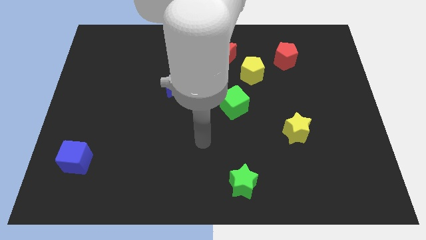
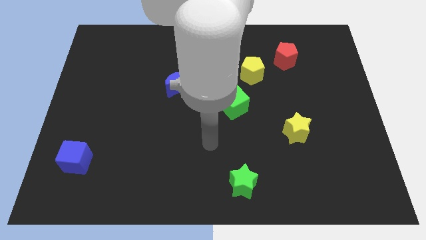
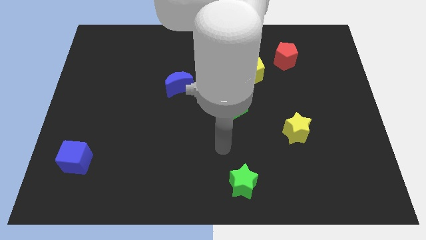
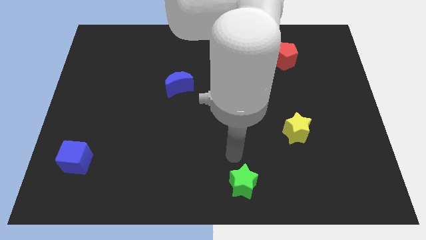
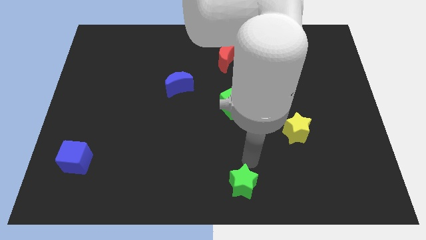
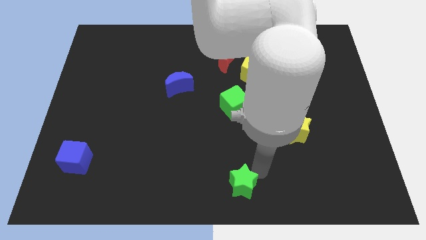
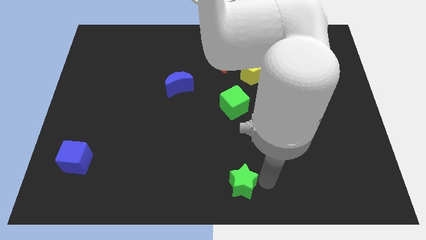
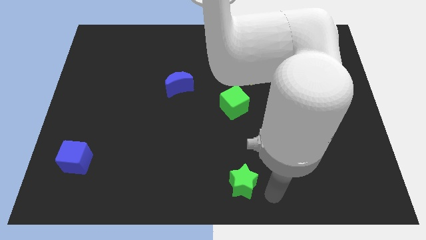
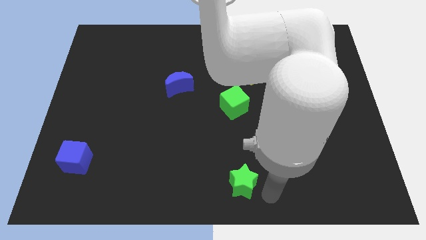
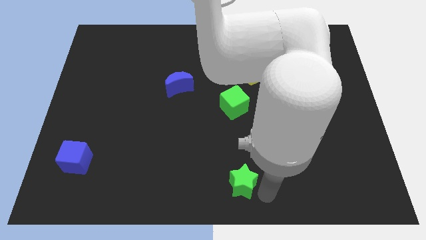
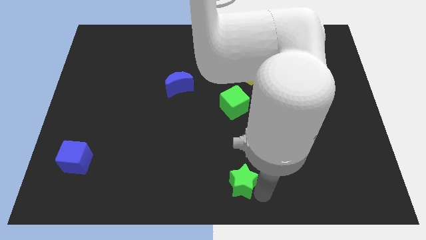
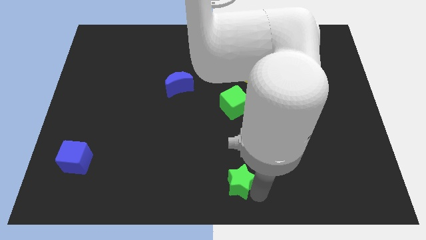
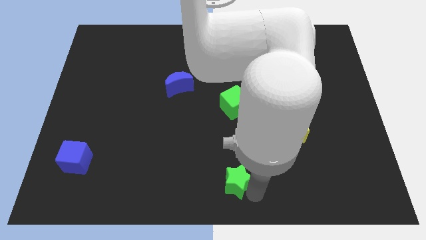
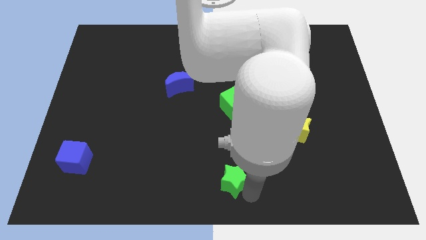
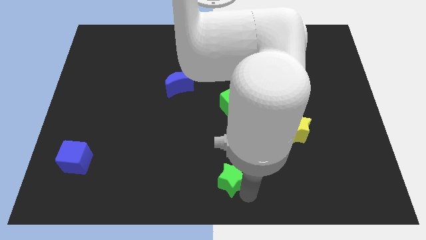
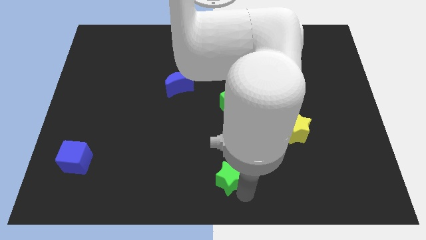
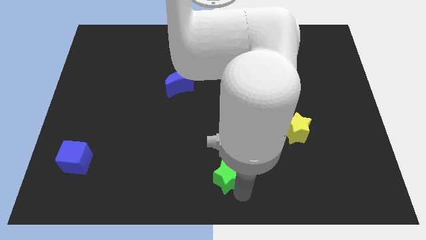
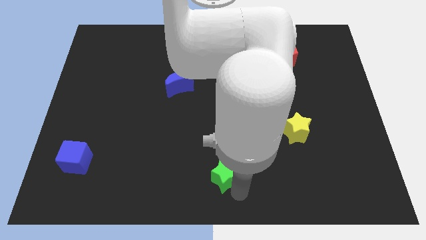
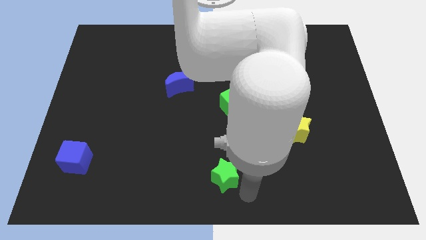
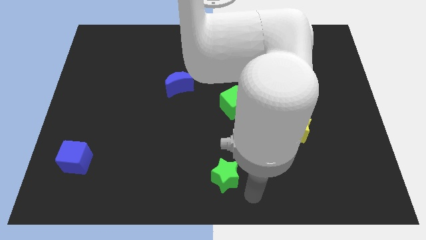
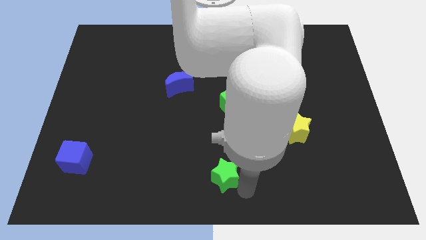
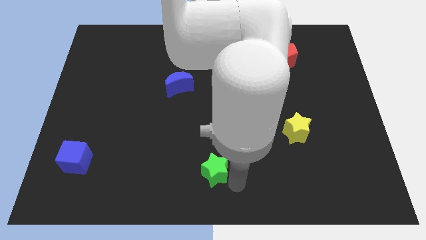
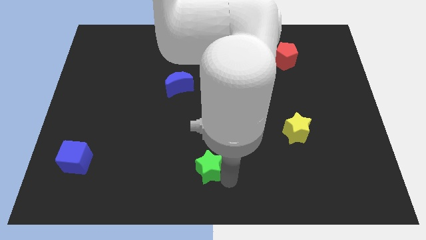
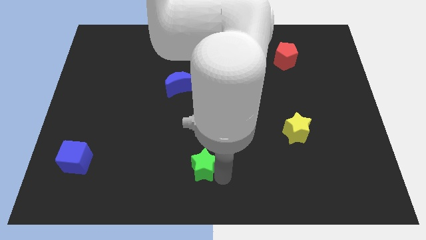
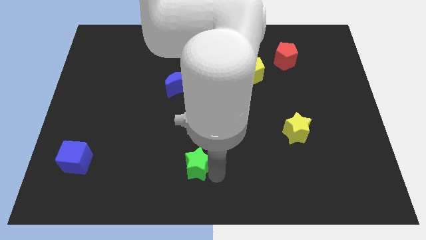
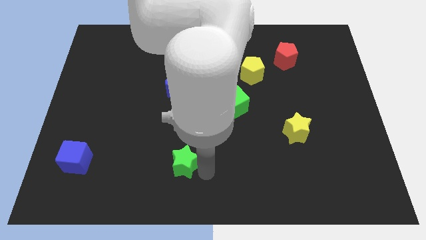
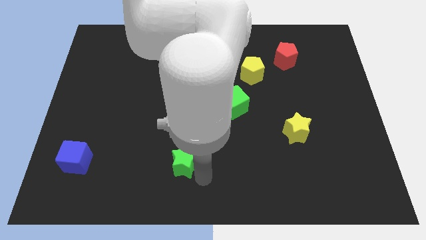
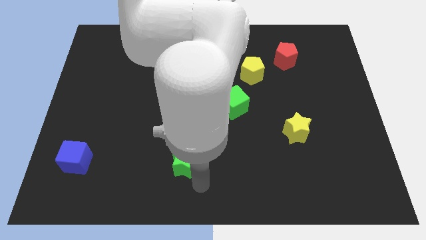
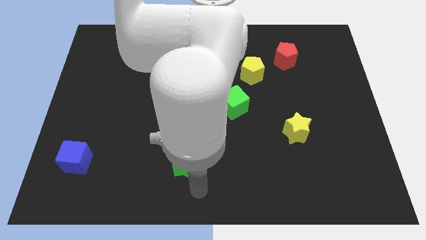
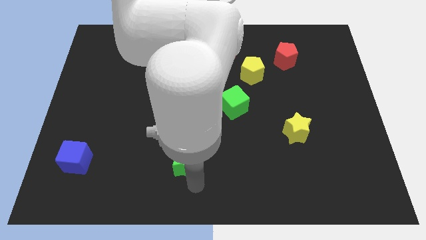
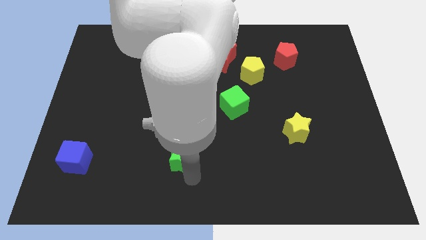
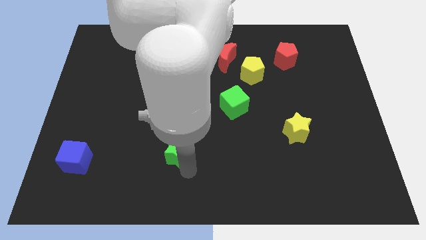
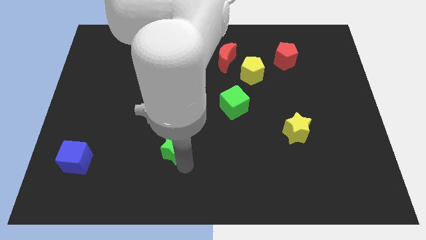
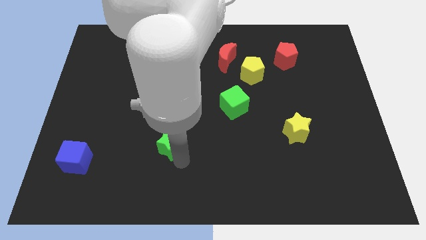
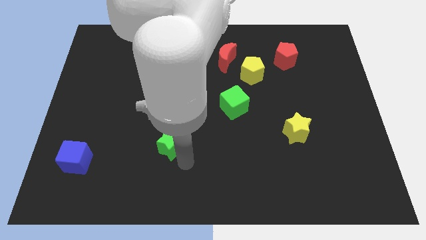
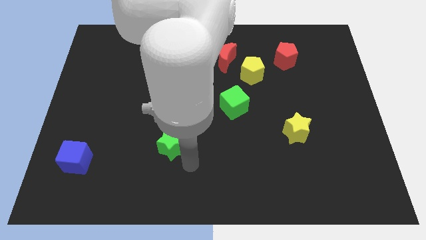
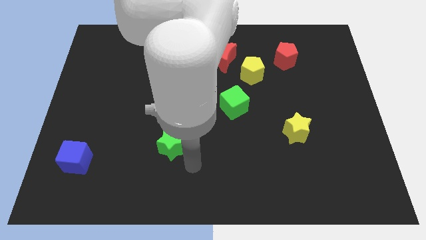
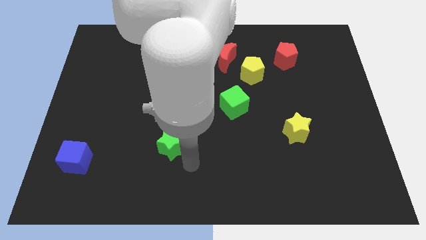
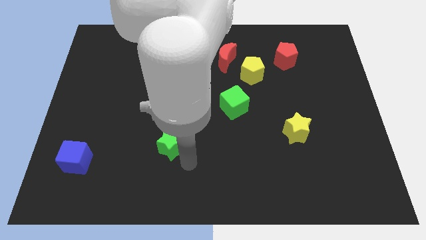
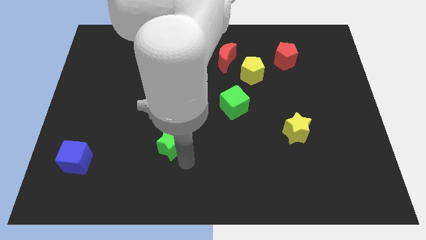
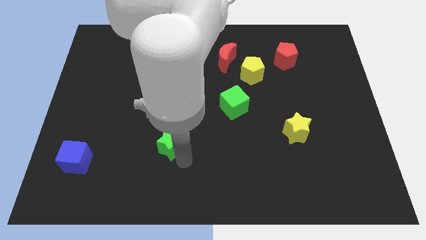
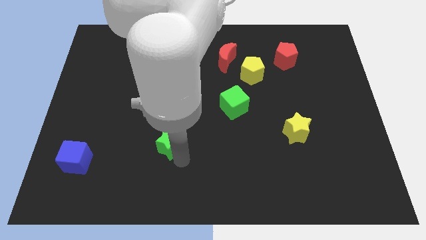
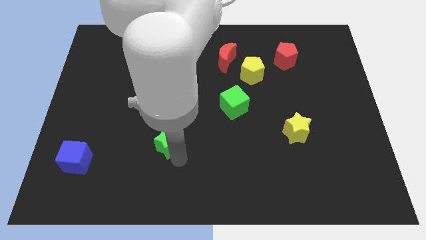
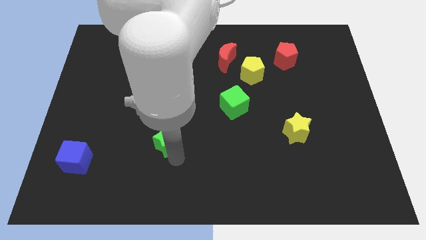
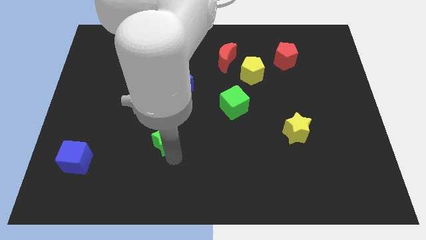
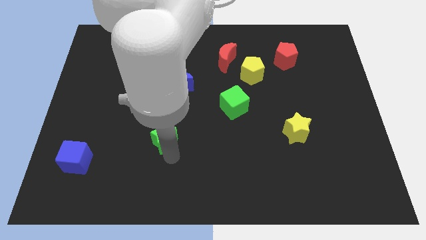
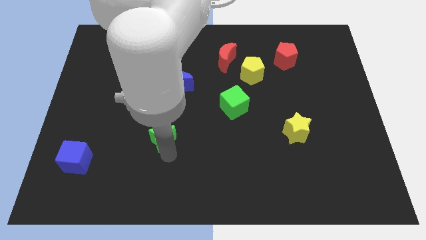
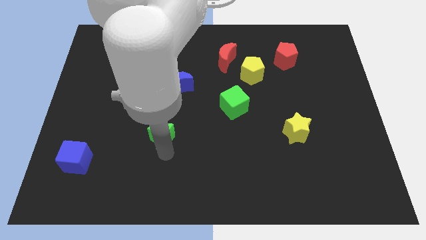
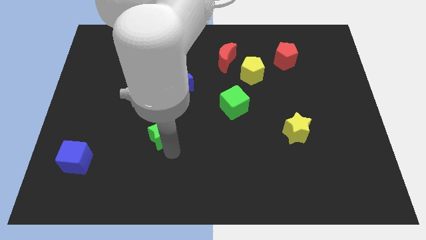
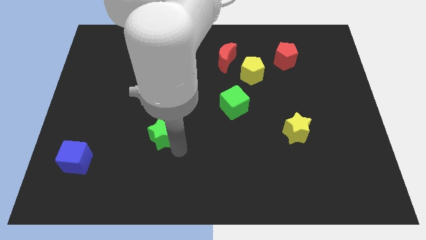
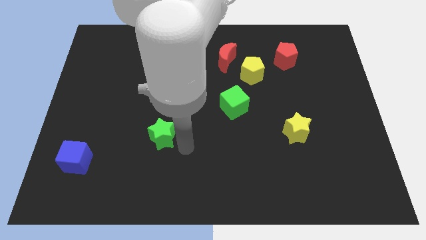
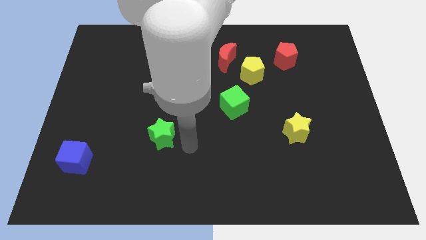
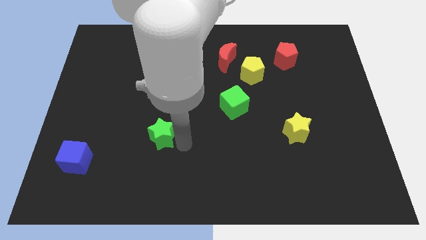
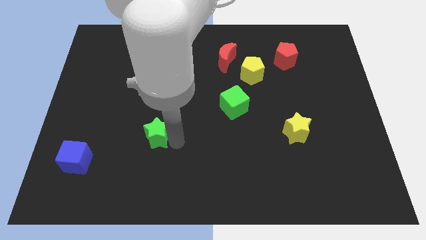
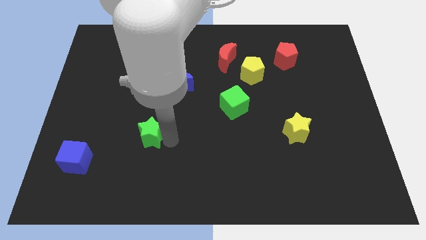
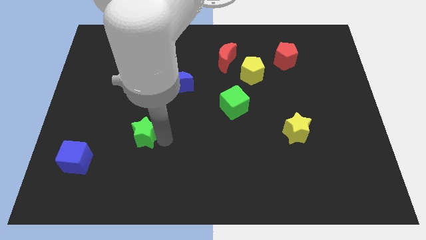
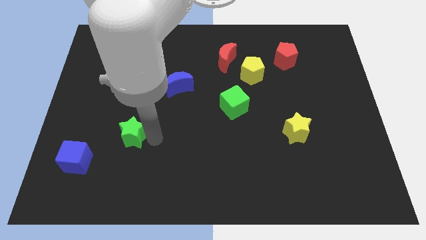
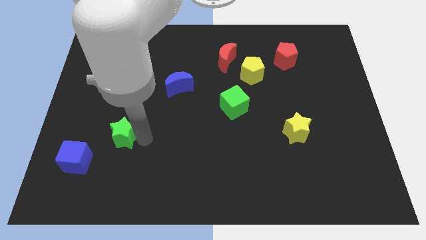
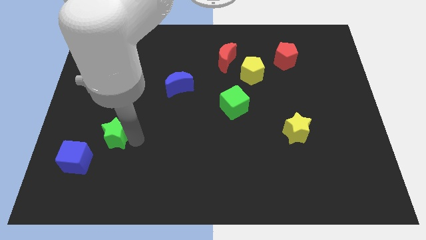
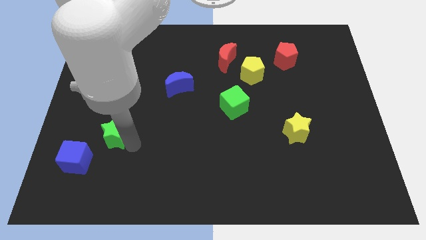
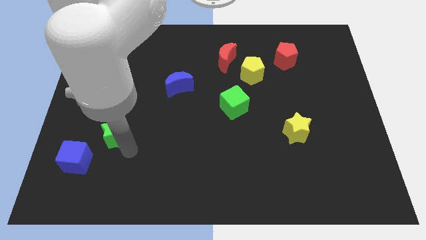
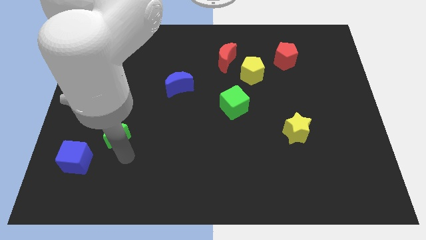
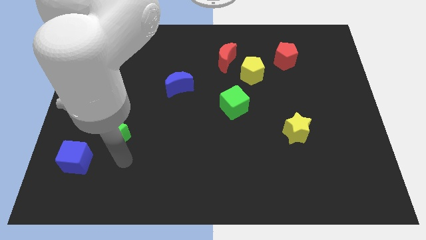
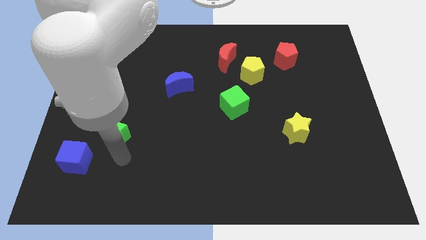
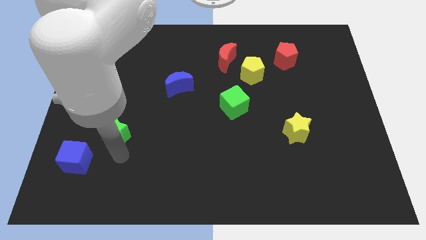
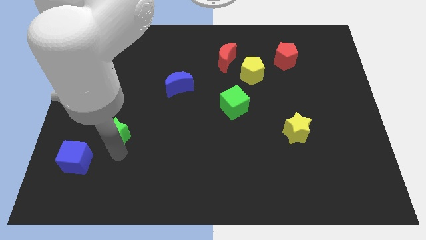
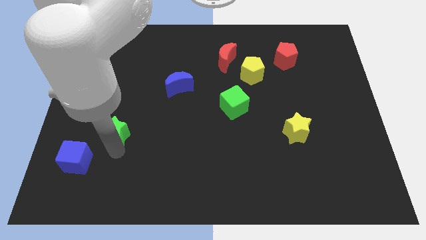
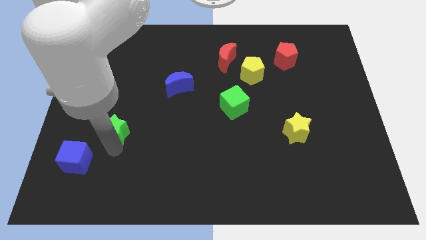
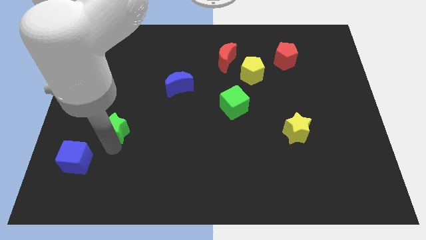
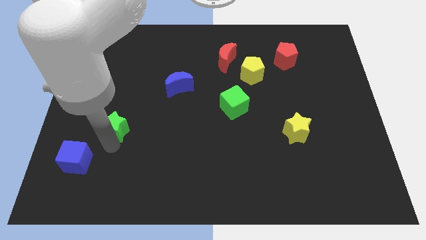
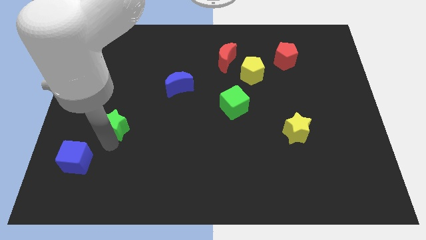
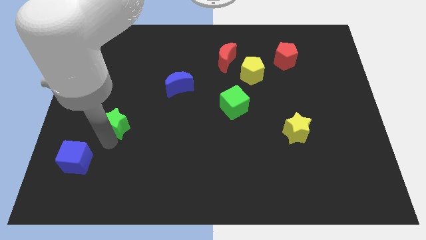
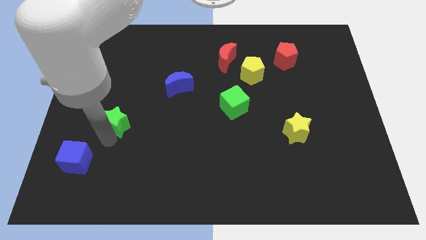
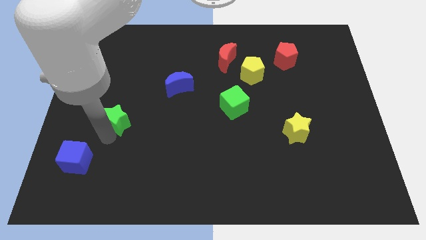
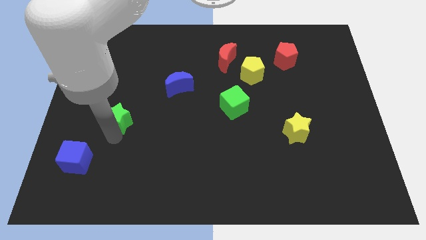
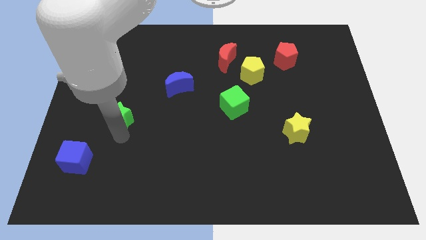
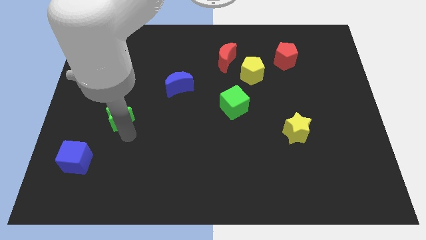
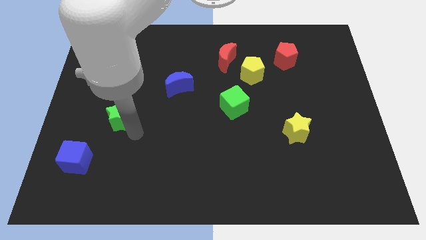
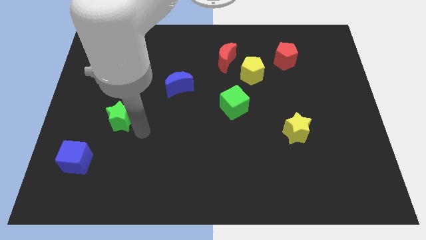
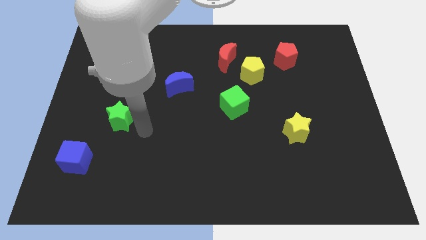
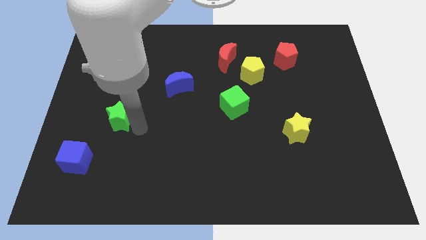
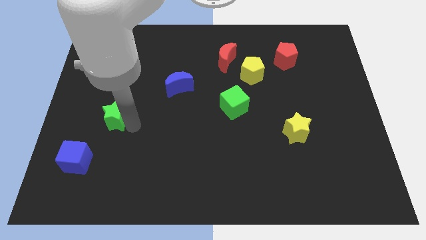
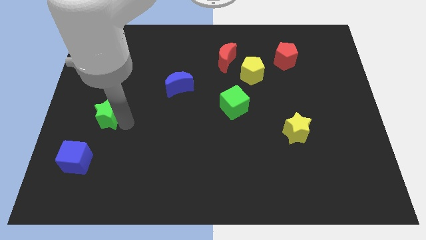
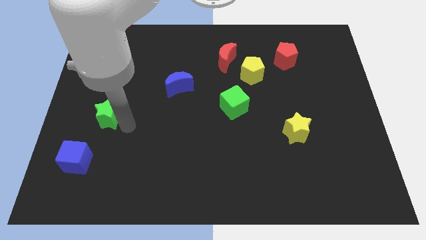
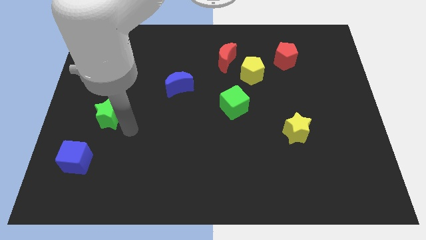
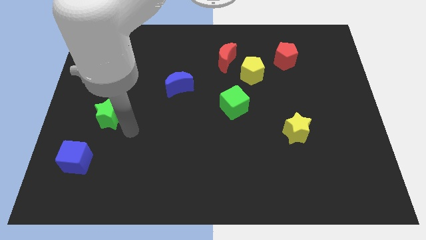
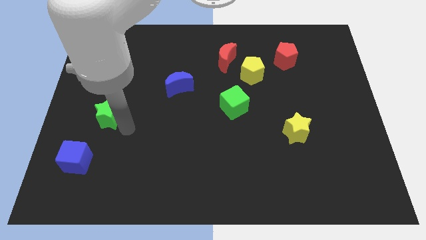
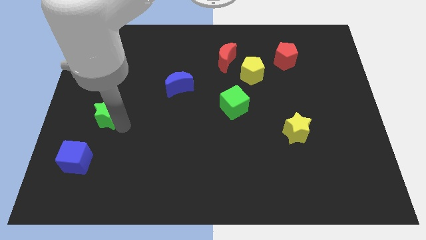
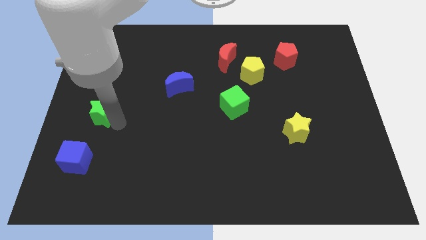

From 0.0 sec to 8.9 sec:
put the green star to the center left
